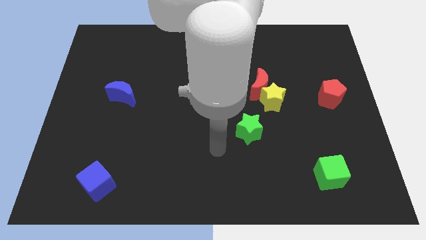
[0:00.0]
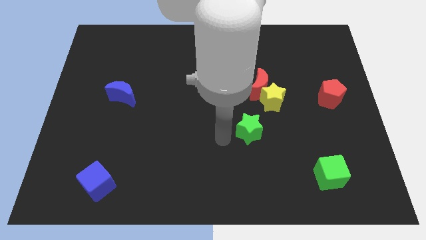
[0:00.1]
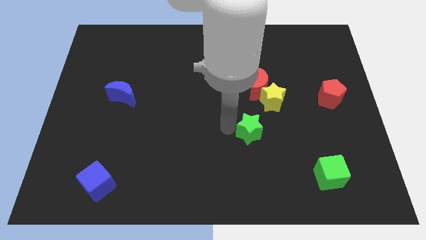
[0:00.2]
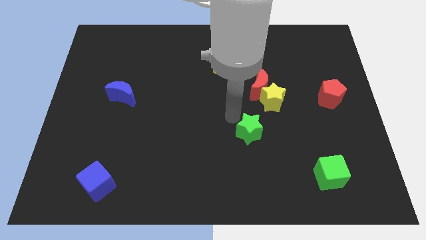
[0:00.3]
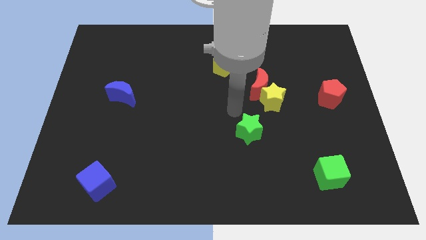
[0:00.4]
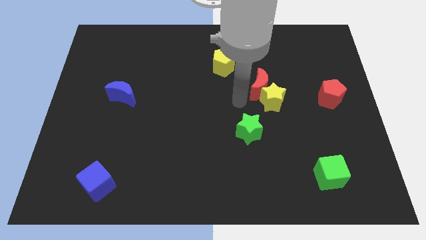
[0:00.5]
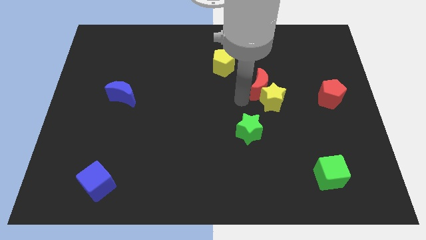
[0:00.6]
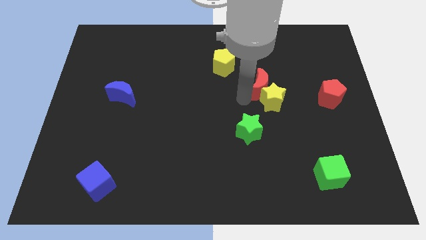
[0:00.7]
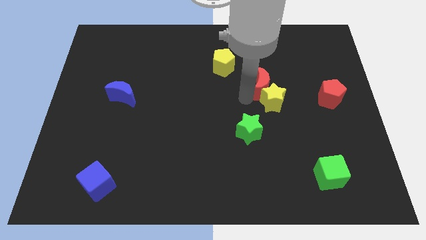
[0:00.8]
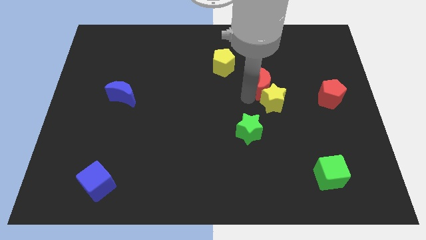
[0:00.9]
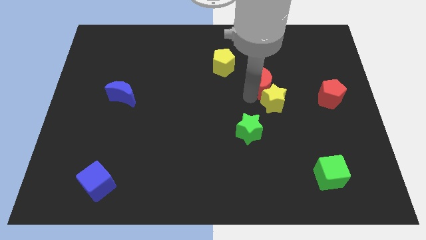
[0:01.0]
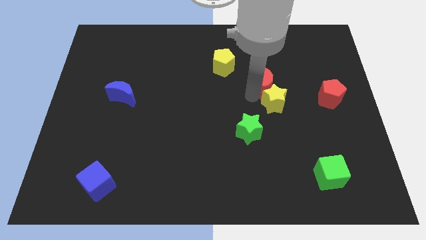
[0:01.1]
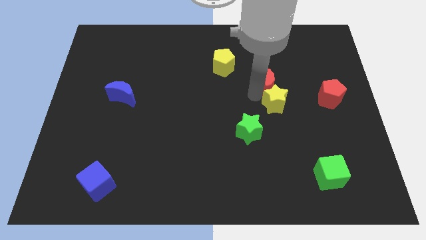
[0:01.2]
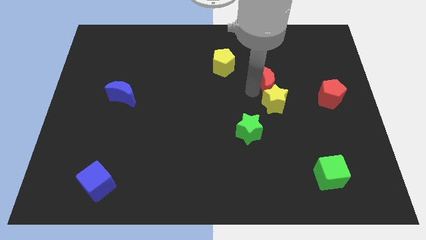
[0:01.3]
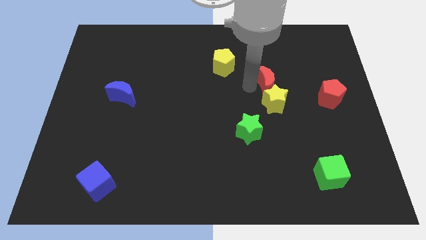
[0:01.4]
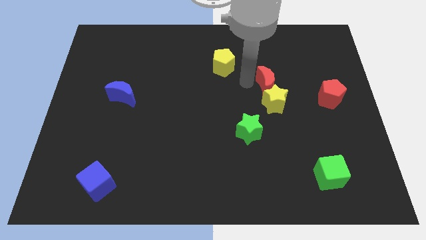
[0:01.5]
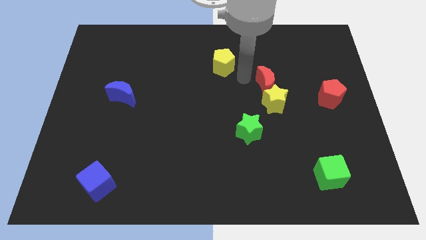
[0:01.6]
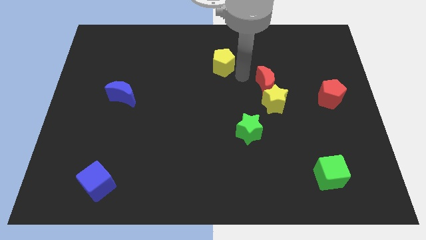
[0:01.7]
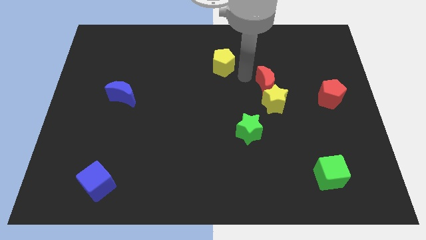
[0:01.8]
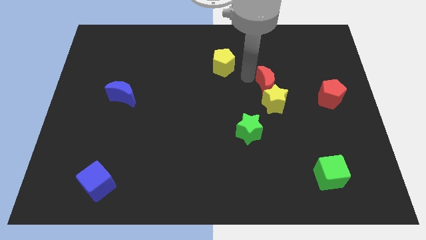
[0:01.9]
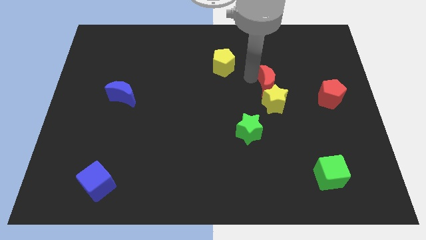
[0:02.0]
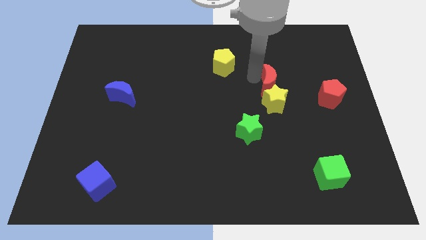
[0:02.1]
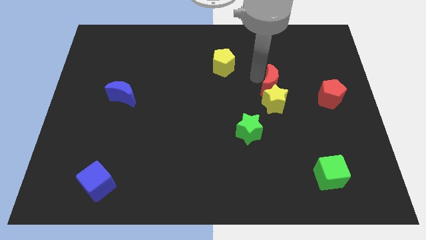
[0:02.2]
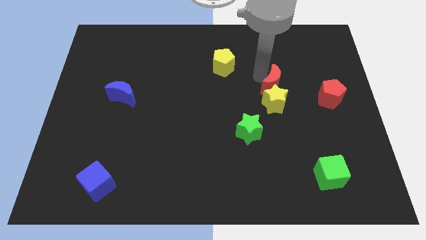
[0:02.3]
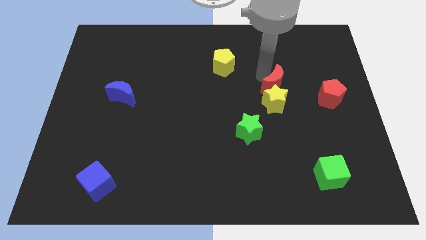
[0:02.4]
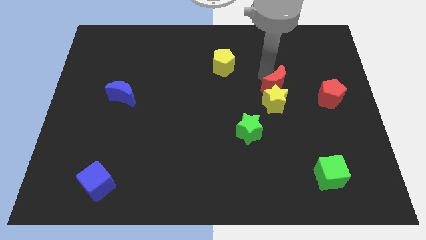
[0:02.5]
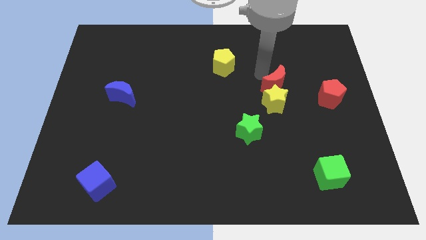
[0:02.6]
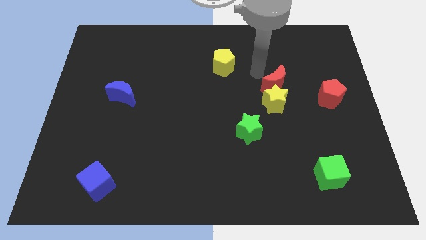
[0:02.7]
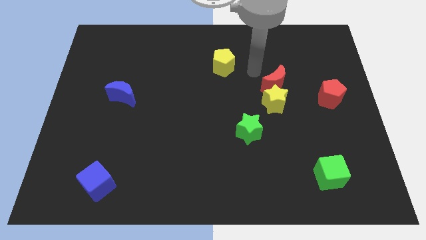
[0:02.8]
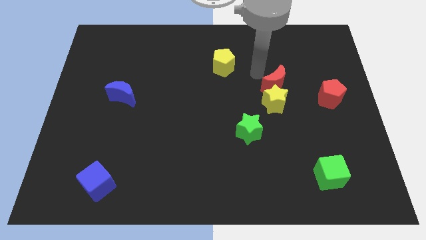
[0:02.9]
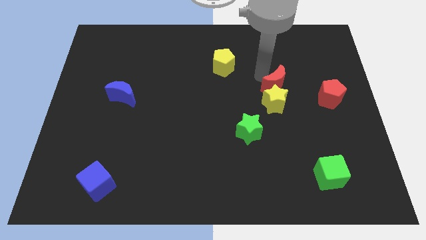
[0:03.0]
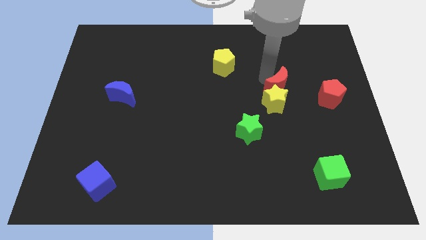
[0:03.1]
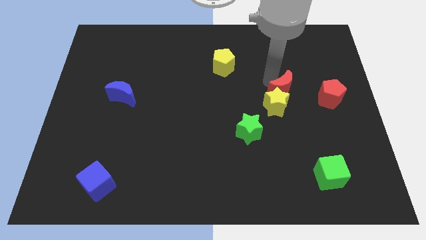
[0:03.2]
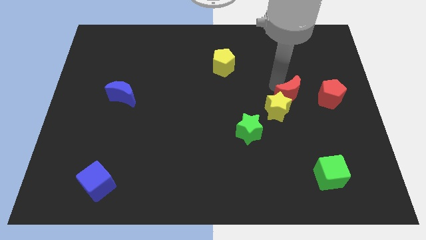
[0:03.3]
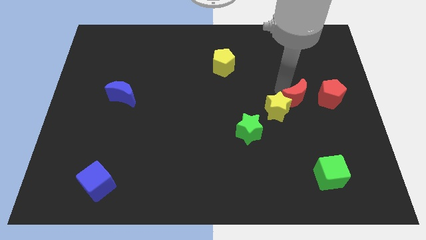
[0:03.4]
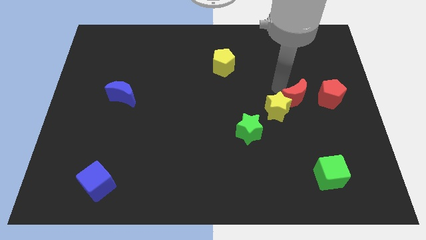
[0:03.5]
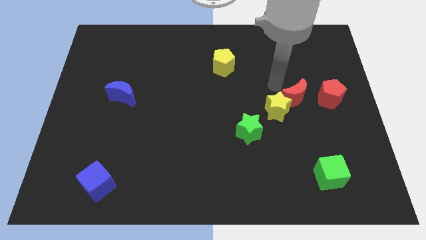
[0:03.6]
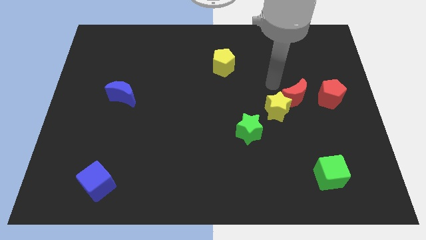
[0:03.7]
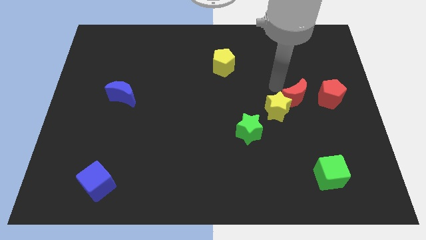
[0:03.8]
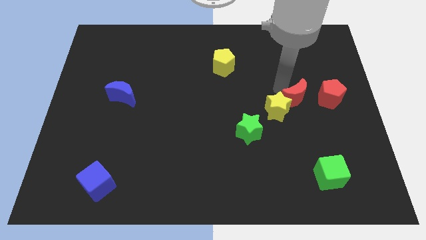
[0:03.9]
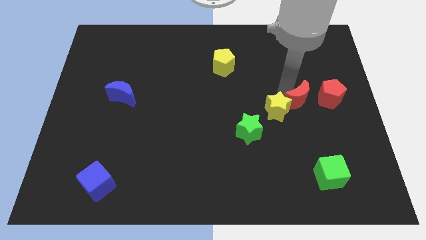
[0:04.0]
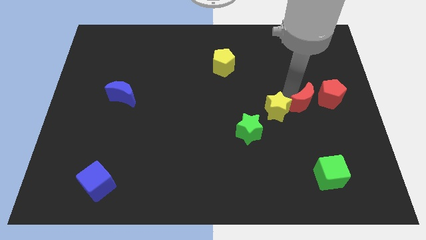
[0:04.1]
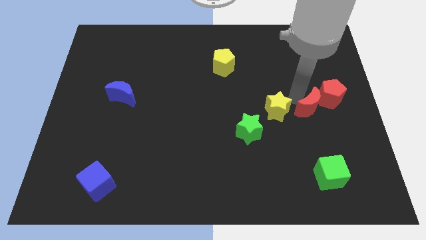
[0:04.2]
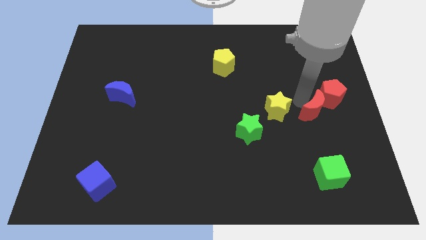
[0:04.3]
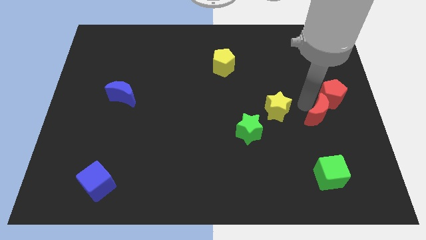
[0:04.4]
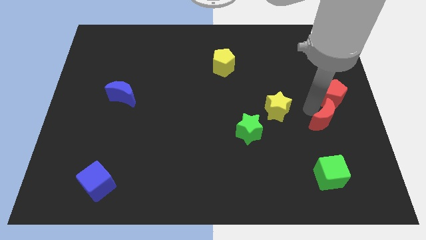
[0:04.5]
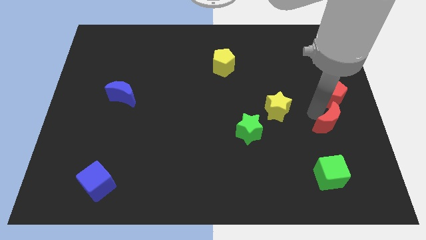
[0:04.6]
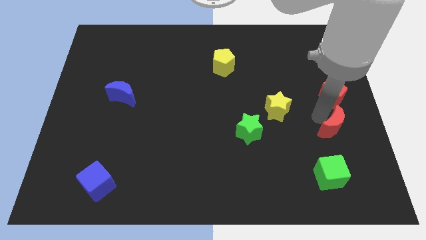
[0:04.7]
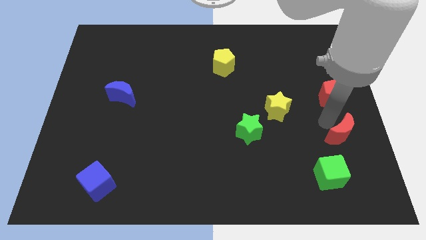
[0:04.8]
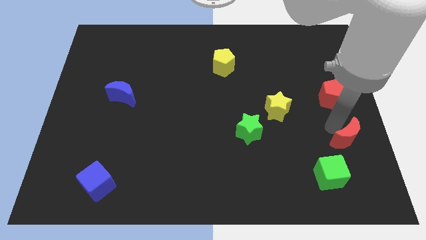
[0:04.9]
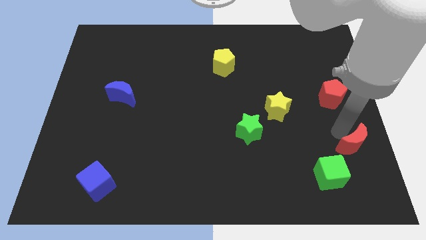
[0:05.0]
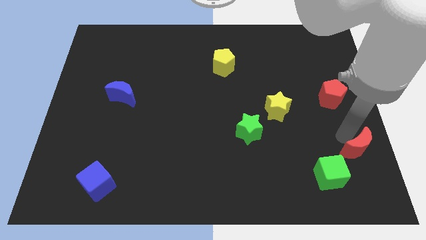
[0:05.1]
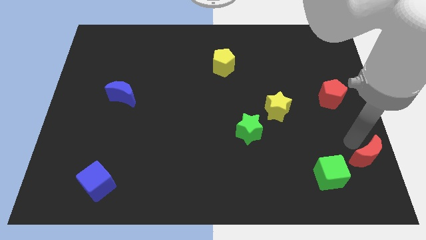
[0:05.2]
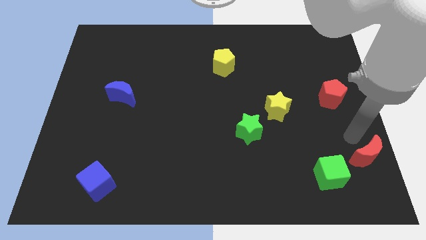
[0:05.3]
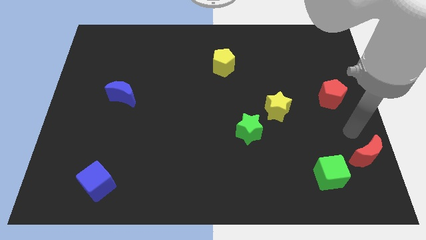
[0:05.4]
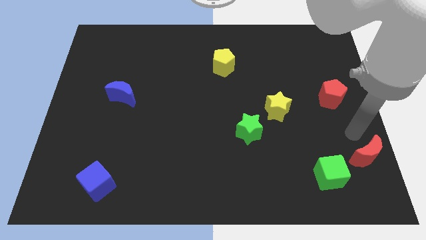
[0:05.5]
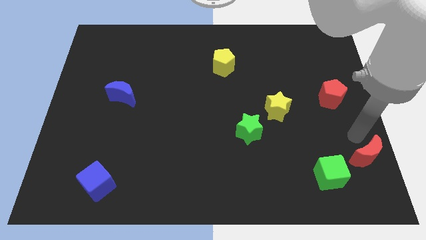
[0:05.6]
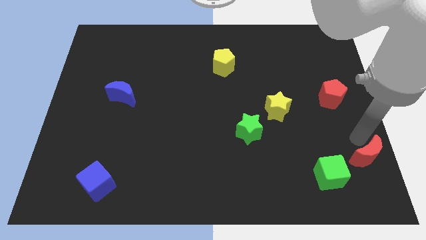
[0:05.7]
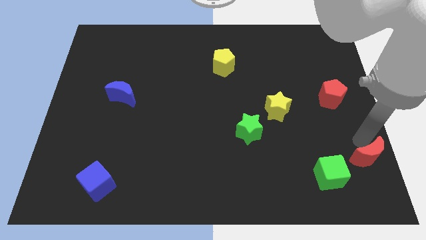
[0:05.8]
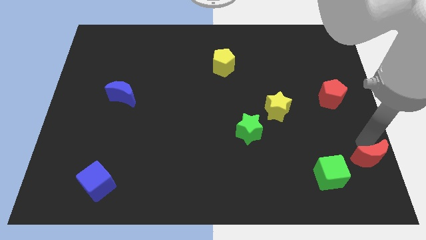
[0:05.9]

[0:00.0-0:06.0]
move the red moon to the lower right corner
